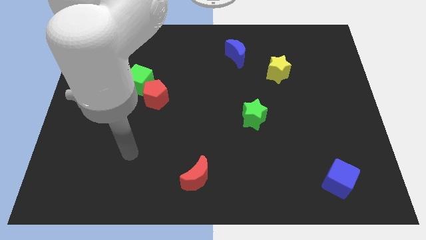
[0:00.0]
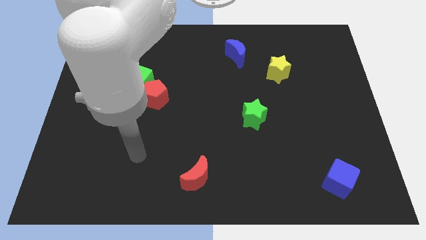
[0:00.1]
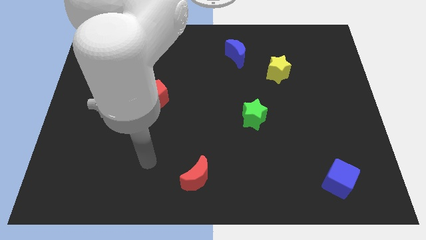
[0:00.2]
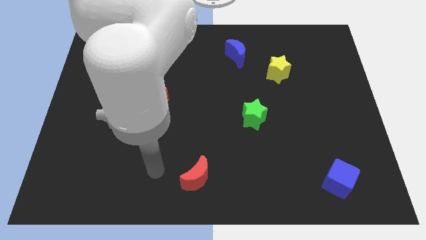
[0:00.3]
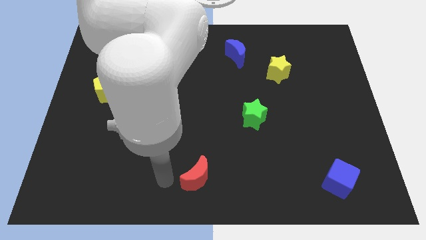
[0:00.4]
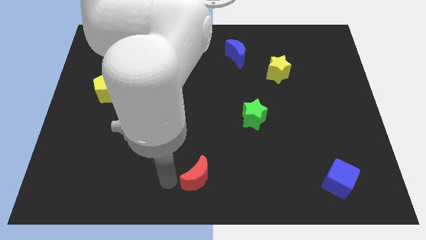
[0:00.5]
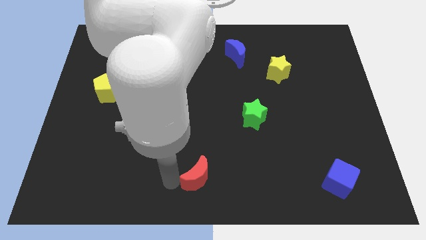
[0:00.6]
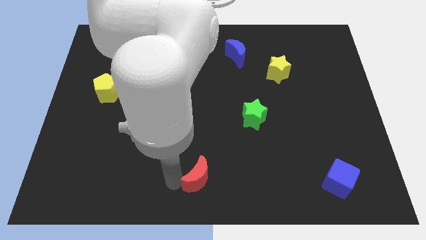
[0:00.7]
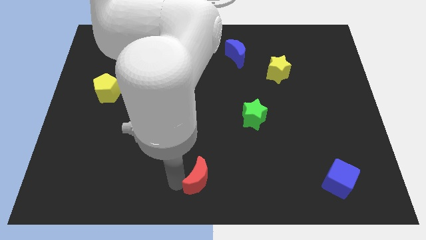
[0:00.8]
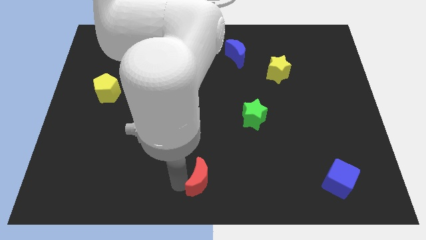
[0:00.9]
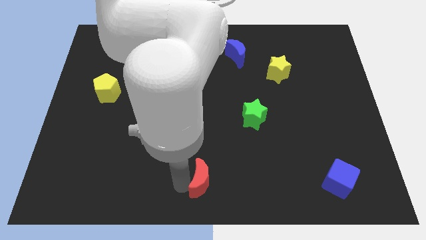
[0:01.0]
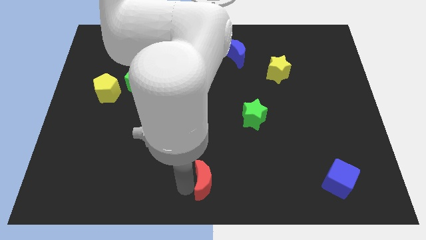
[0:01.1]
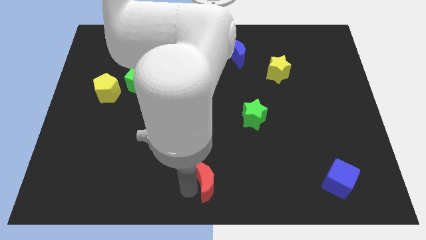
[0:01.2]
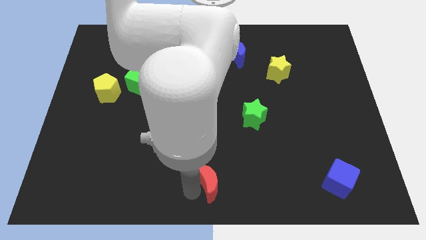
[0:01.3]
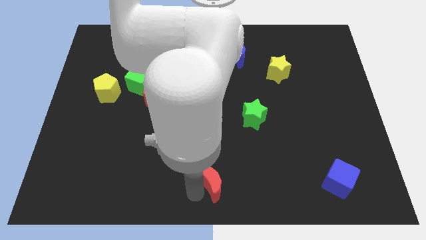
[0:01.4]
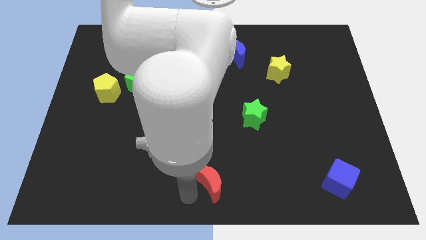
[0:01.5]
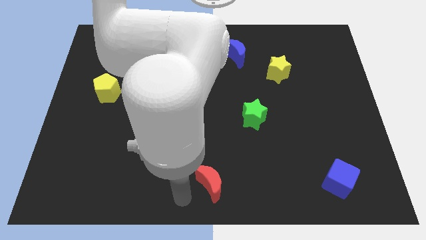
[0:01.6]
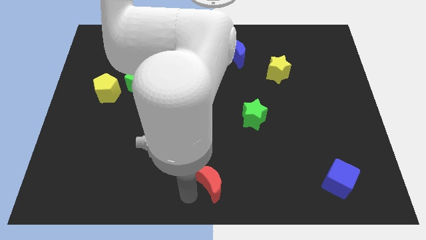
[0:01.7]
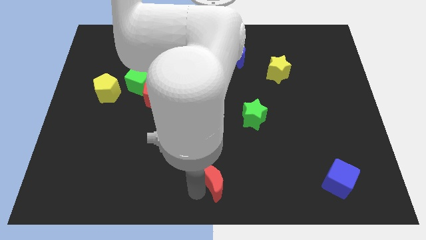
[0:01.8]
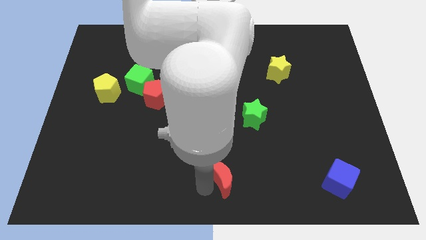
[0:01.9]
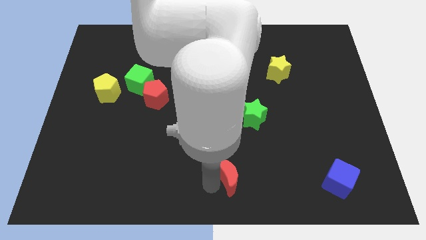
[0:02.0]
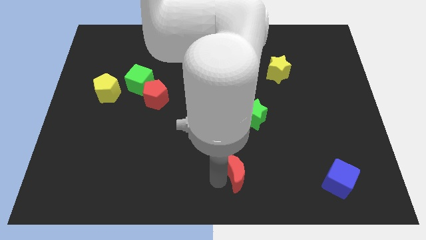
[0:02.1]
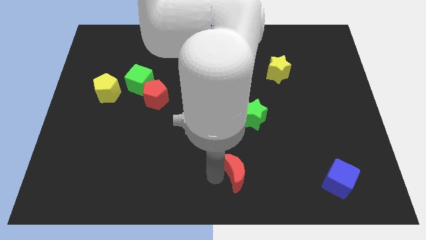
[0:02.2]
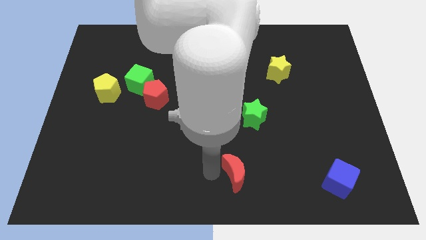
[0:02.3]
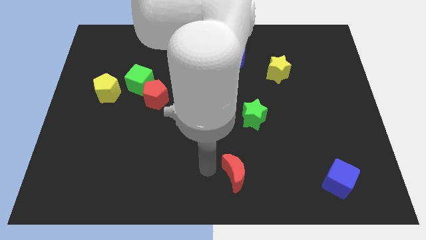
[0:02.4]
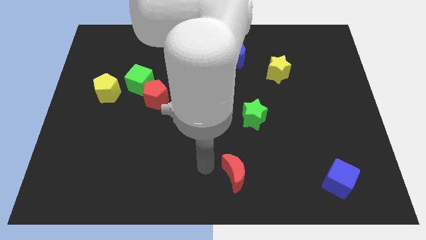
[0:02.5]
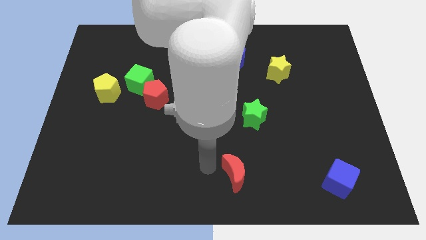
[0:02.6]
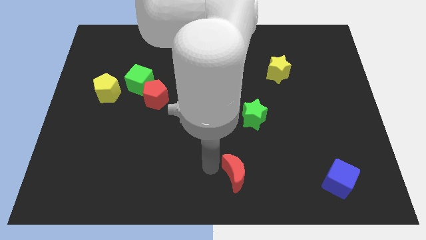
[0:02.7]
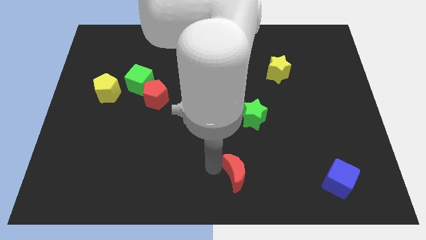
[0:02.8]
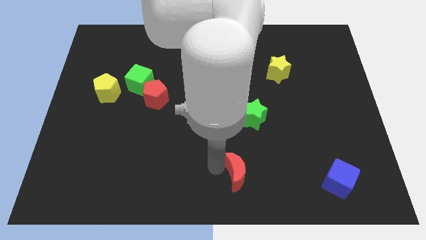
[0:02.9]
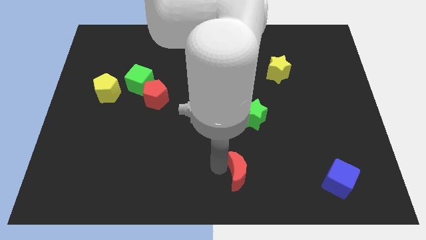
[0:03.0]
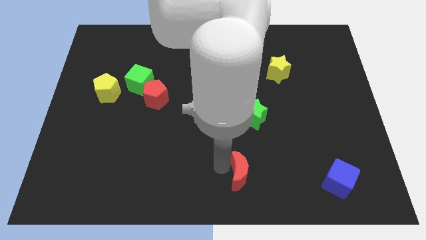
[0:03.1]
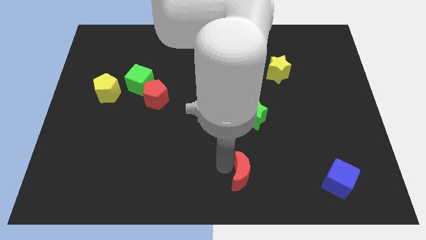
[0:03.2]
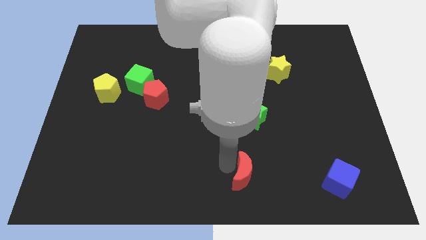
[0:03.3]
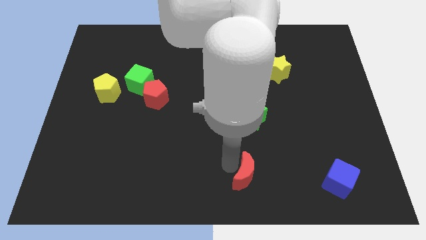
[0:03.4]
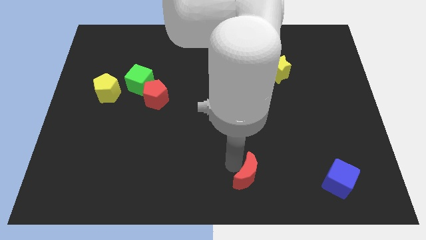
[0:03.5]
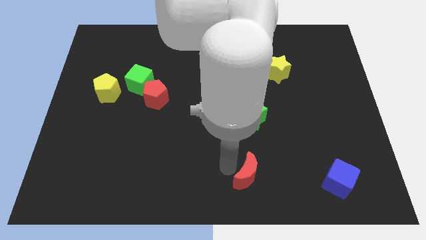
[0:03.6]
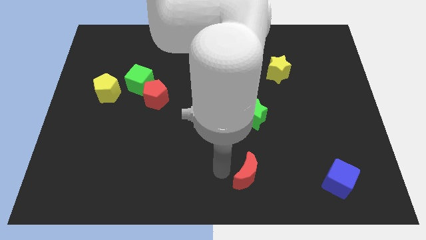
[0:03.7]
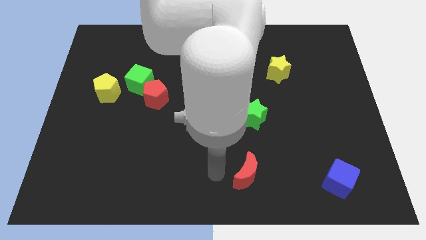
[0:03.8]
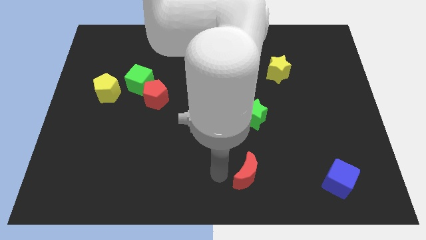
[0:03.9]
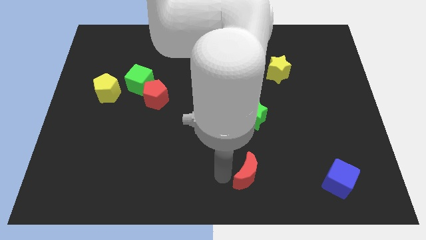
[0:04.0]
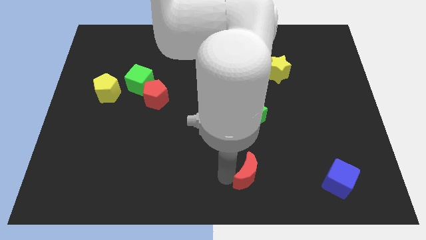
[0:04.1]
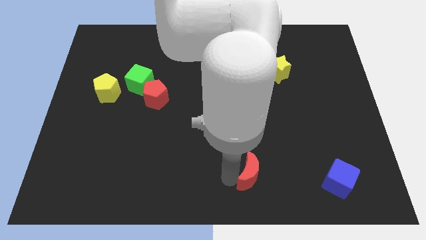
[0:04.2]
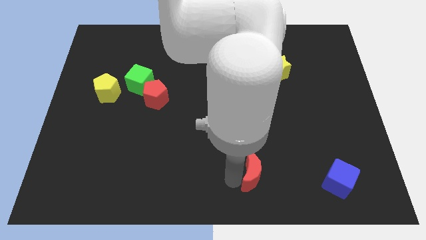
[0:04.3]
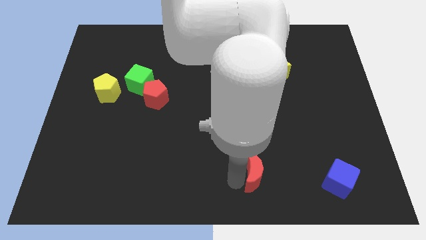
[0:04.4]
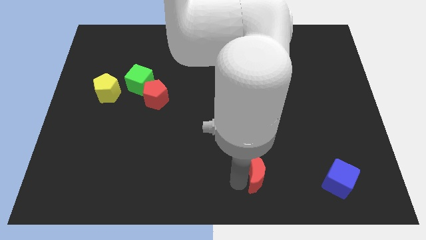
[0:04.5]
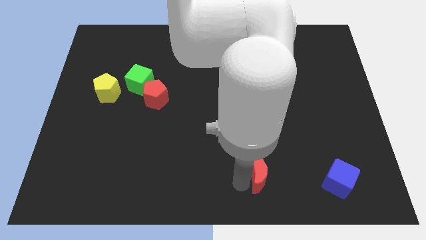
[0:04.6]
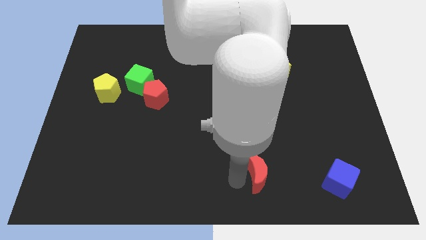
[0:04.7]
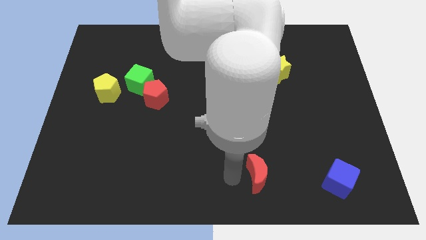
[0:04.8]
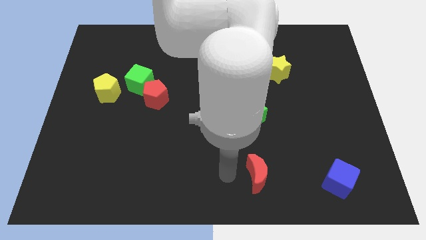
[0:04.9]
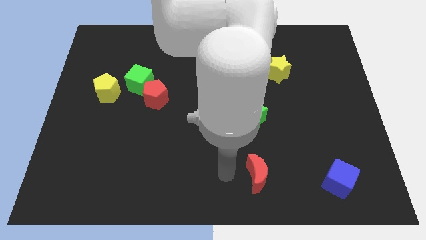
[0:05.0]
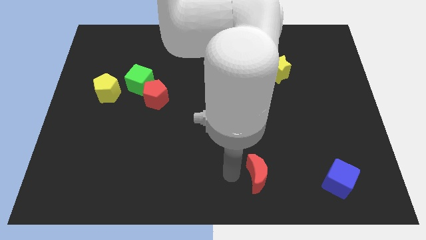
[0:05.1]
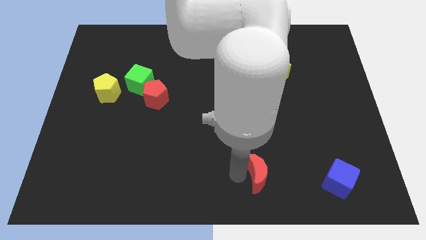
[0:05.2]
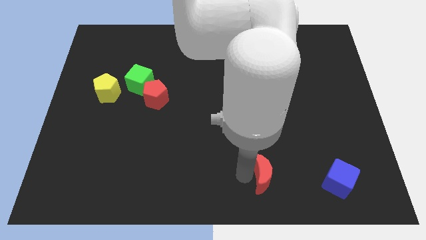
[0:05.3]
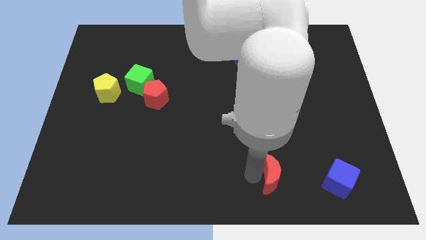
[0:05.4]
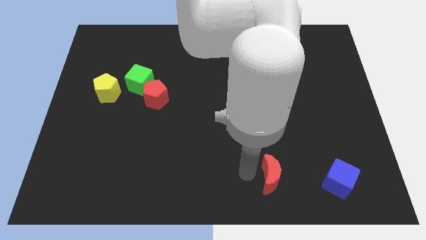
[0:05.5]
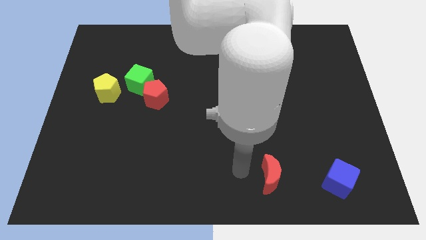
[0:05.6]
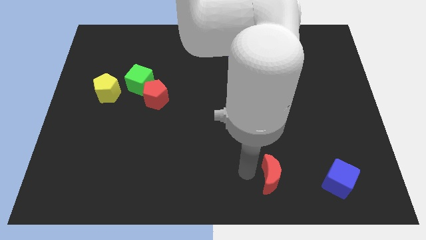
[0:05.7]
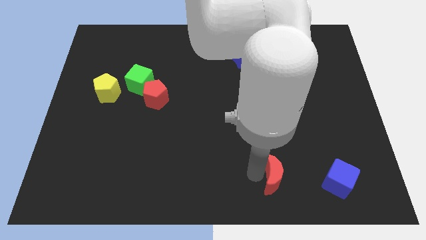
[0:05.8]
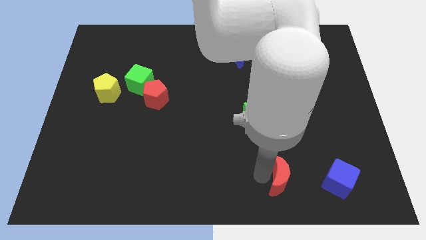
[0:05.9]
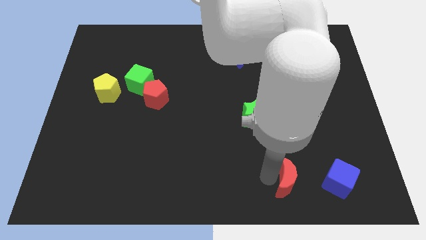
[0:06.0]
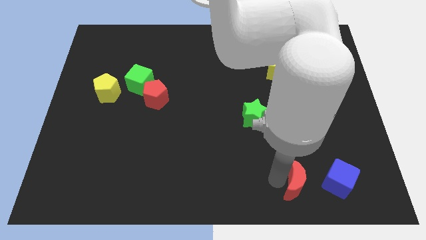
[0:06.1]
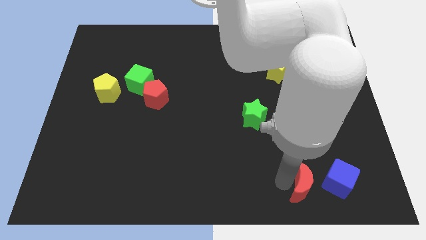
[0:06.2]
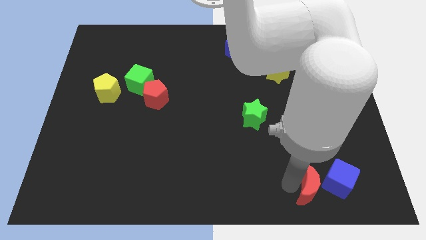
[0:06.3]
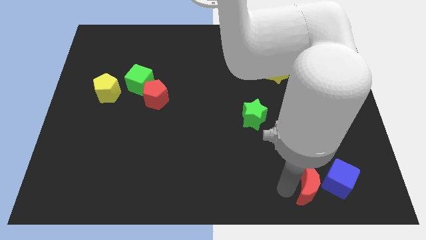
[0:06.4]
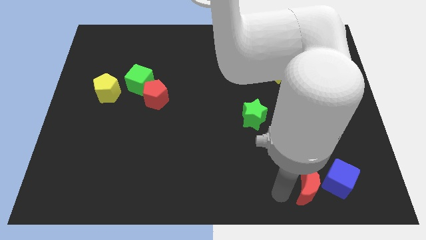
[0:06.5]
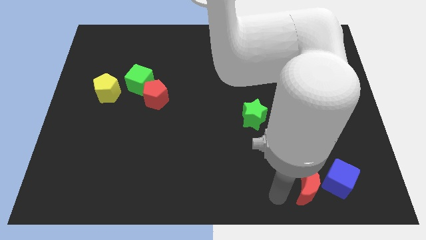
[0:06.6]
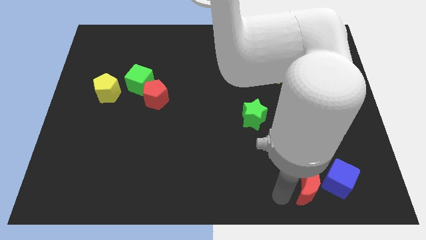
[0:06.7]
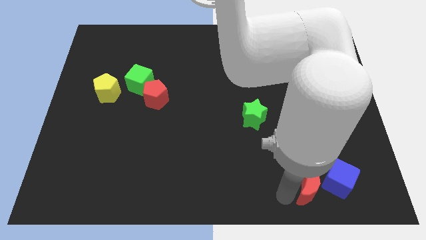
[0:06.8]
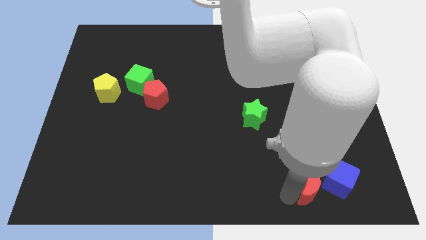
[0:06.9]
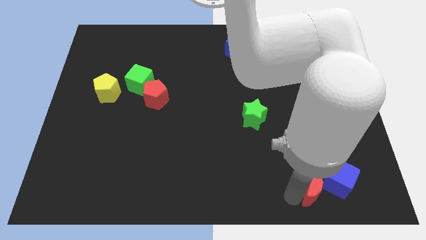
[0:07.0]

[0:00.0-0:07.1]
slide the red moon next to the blue cube
